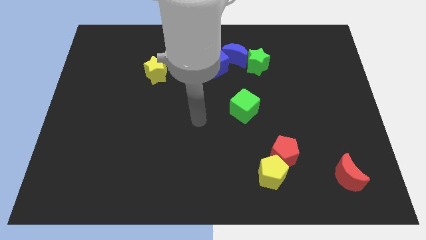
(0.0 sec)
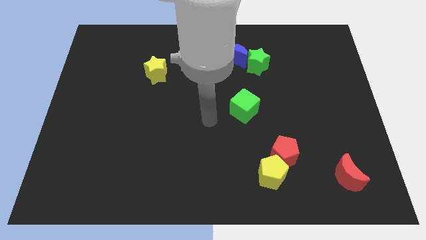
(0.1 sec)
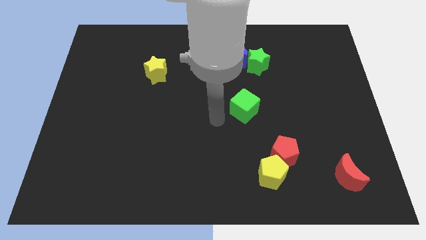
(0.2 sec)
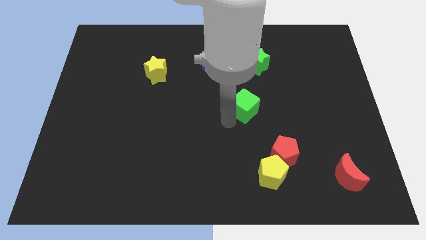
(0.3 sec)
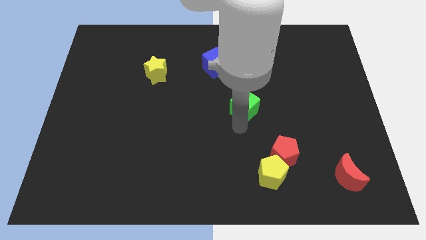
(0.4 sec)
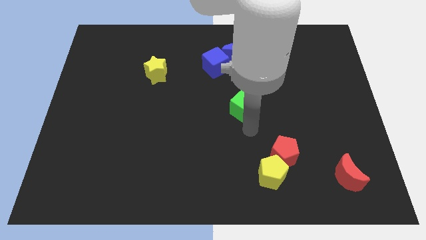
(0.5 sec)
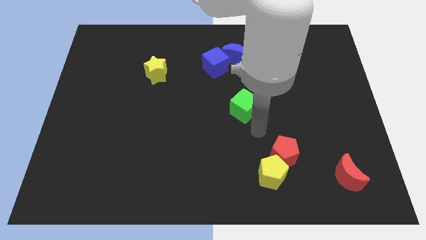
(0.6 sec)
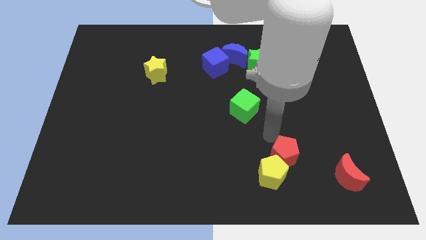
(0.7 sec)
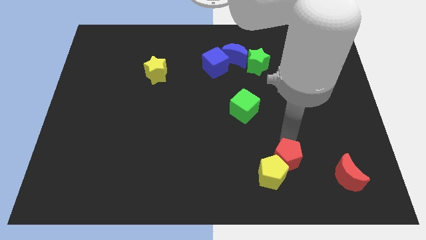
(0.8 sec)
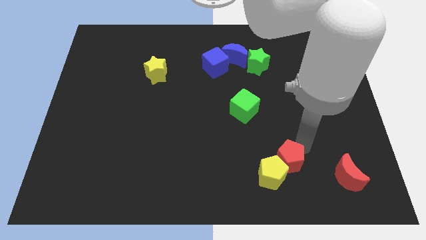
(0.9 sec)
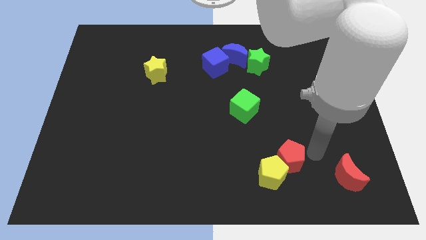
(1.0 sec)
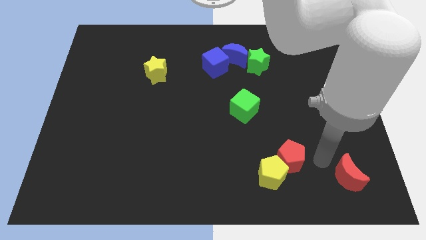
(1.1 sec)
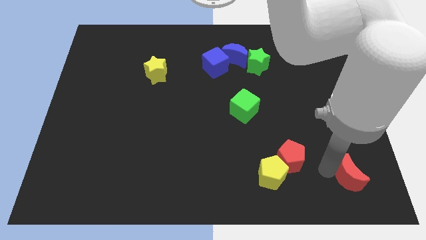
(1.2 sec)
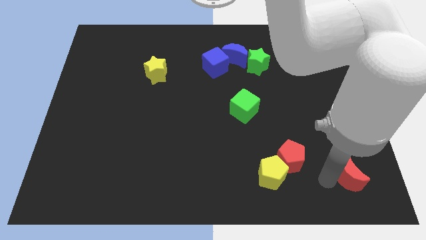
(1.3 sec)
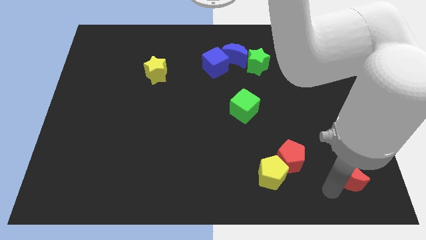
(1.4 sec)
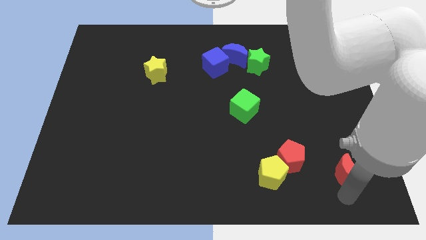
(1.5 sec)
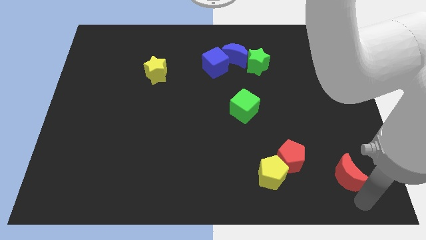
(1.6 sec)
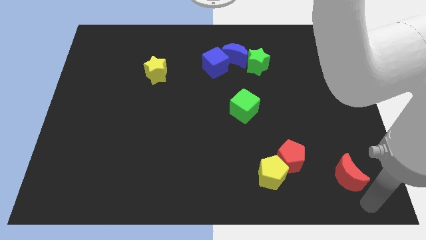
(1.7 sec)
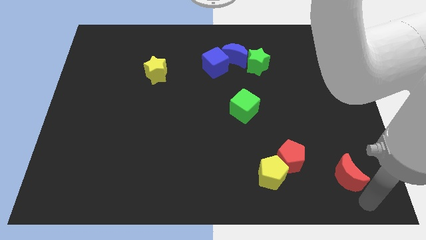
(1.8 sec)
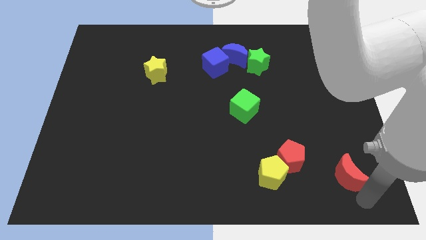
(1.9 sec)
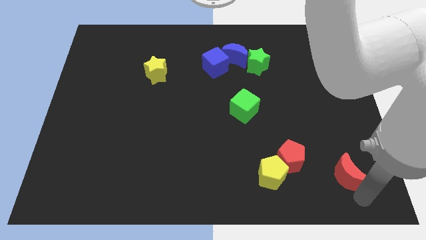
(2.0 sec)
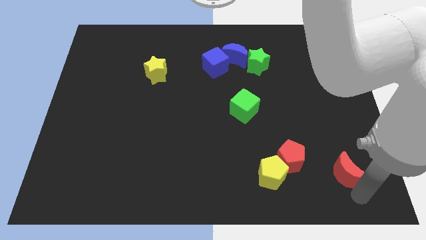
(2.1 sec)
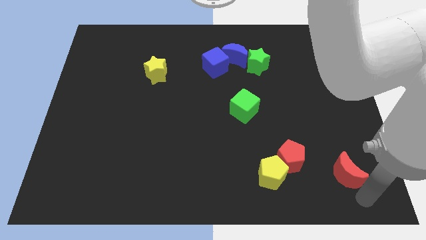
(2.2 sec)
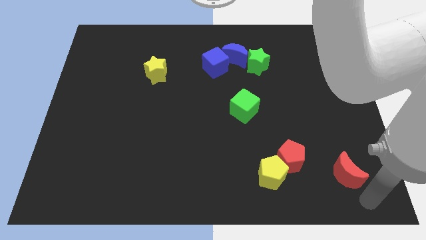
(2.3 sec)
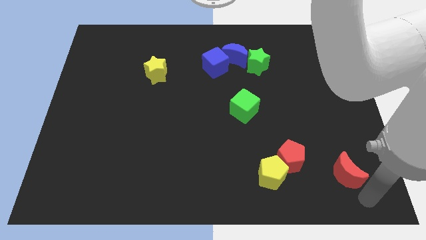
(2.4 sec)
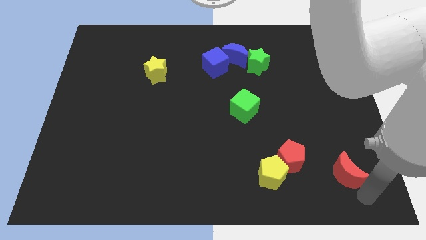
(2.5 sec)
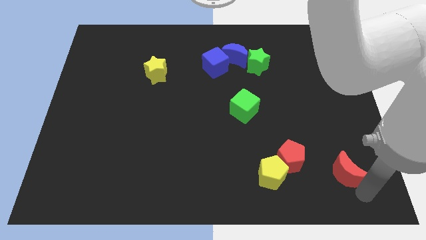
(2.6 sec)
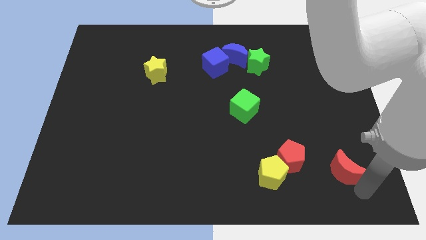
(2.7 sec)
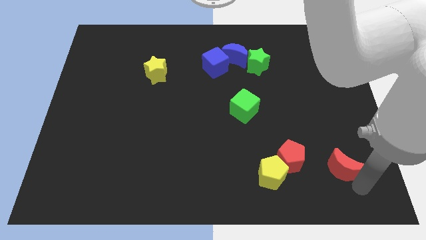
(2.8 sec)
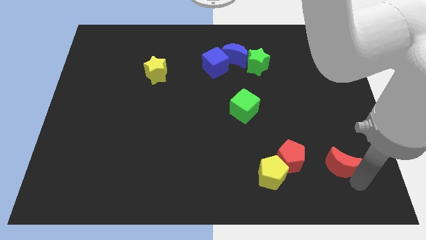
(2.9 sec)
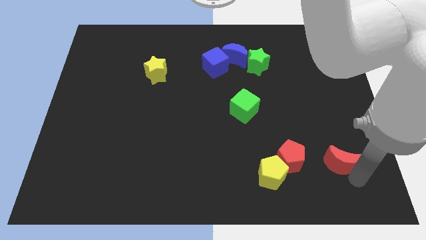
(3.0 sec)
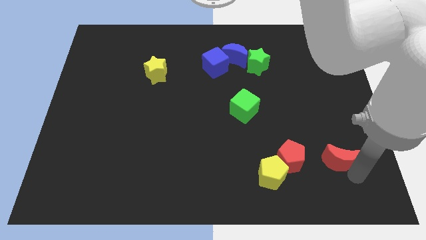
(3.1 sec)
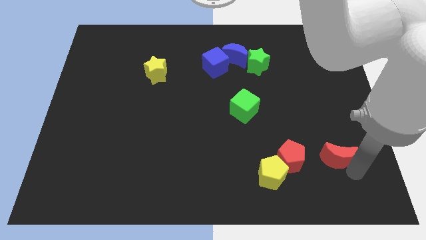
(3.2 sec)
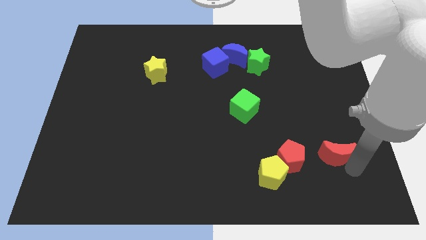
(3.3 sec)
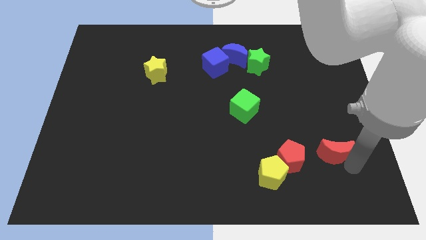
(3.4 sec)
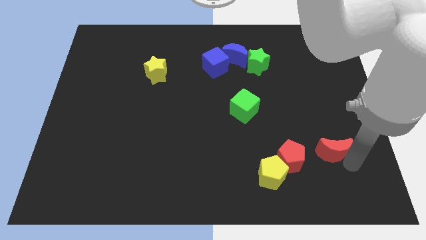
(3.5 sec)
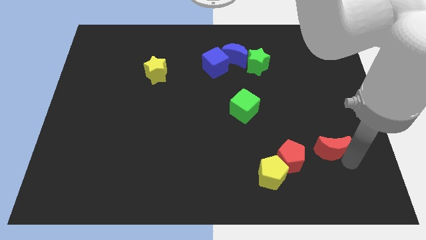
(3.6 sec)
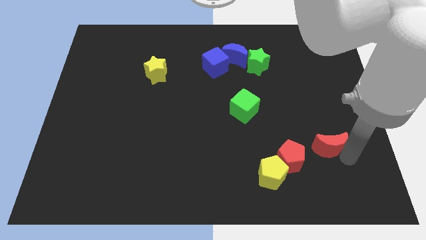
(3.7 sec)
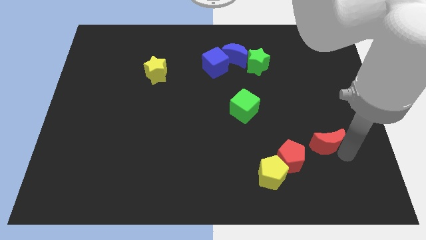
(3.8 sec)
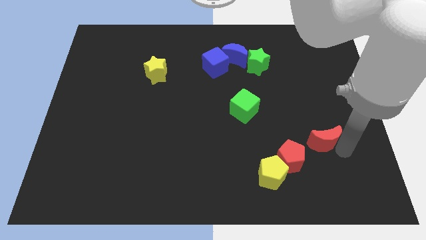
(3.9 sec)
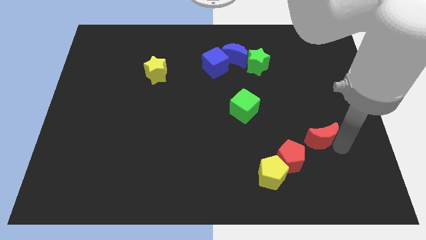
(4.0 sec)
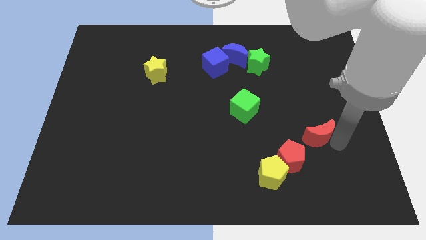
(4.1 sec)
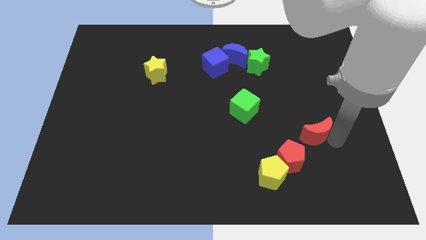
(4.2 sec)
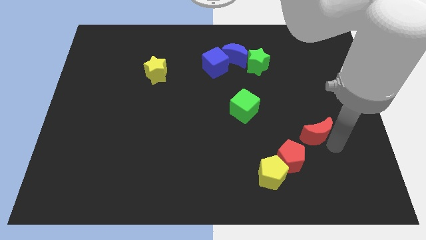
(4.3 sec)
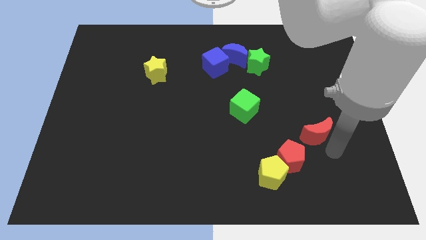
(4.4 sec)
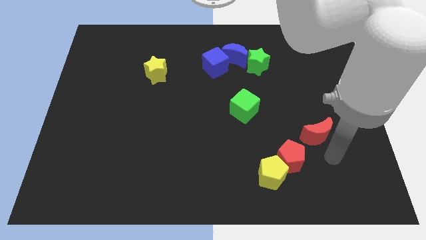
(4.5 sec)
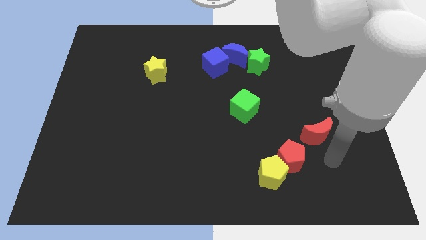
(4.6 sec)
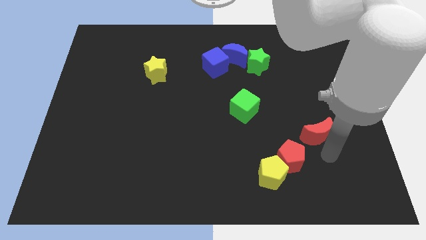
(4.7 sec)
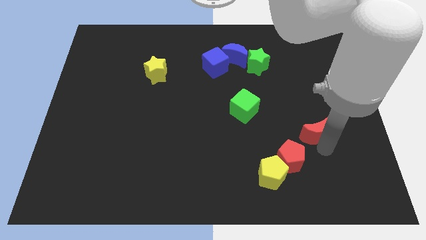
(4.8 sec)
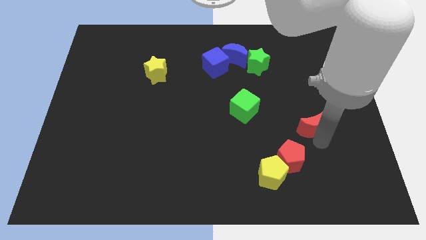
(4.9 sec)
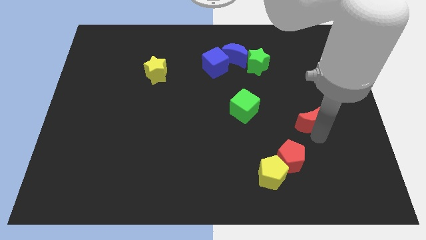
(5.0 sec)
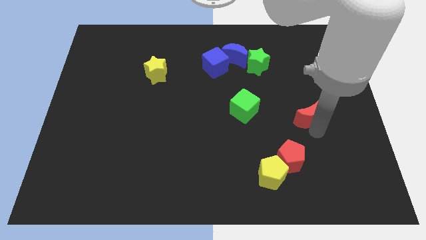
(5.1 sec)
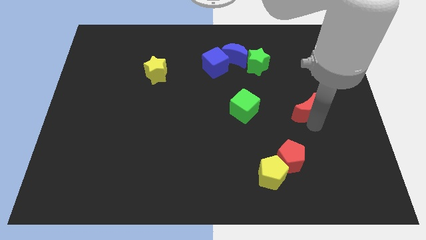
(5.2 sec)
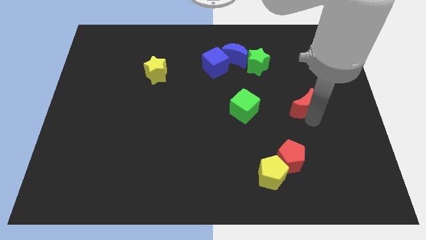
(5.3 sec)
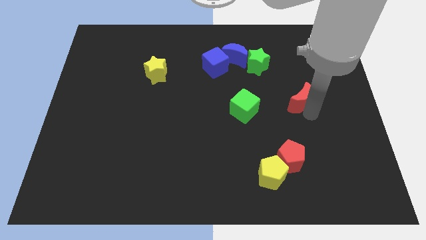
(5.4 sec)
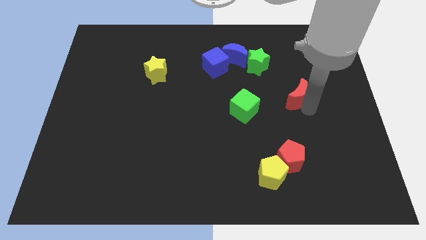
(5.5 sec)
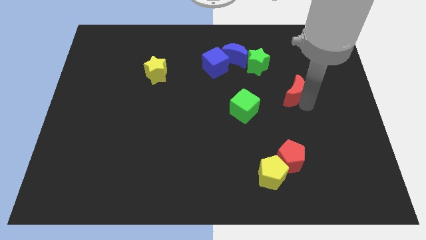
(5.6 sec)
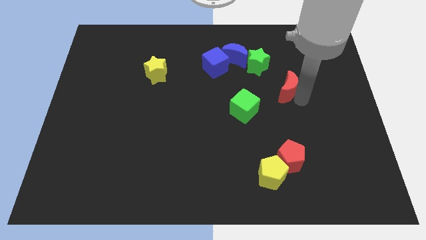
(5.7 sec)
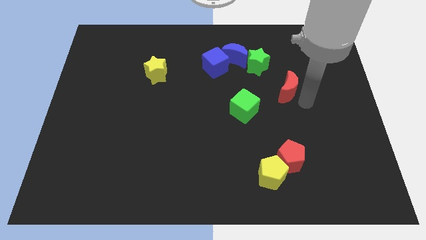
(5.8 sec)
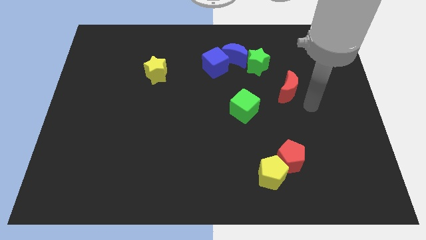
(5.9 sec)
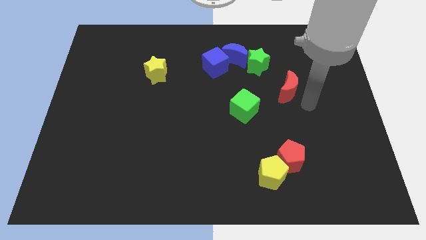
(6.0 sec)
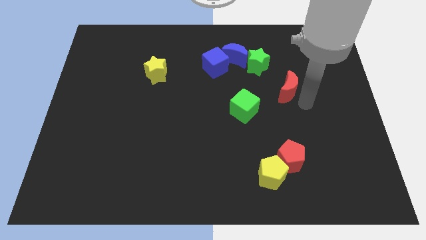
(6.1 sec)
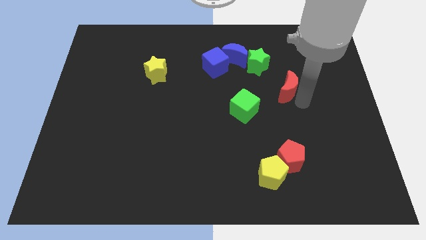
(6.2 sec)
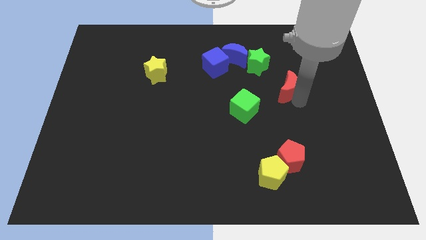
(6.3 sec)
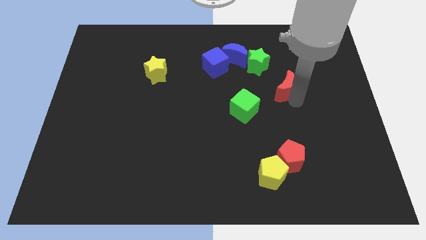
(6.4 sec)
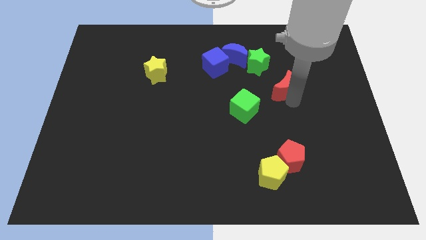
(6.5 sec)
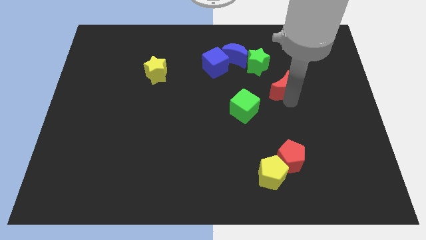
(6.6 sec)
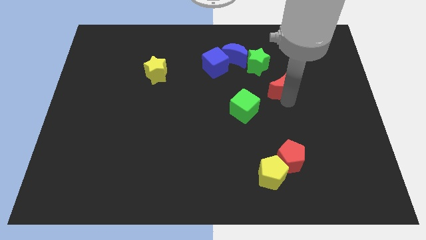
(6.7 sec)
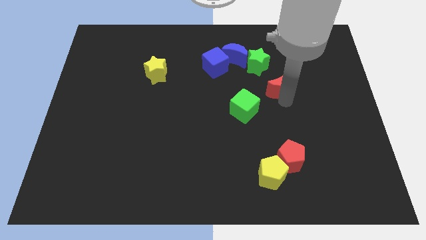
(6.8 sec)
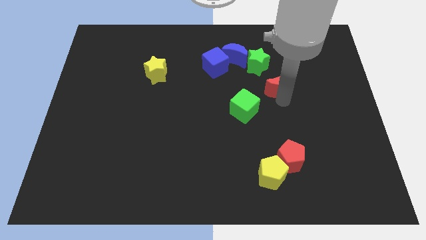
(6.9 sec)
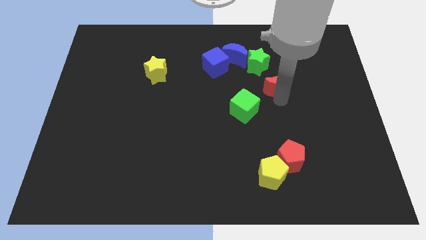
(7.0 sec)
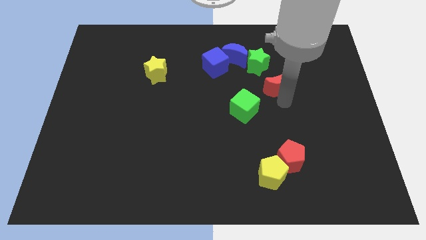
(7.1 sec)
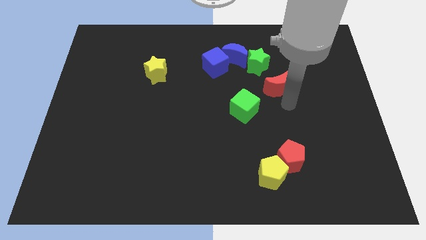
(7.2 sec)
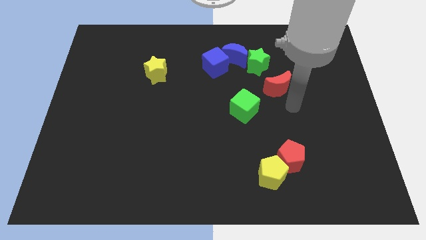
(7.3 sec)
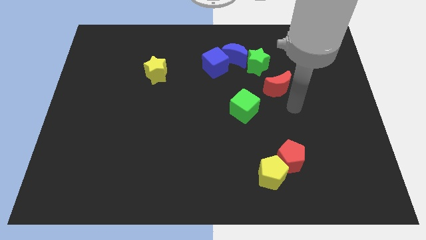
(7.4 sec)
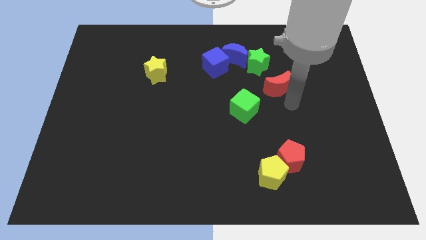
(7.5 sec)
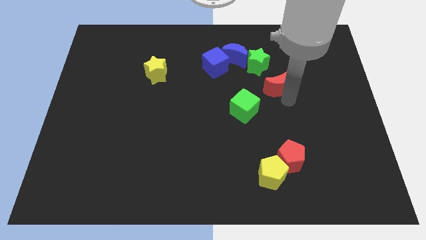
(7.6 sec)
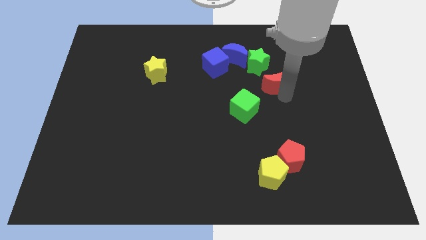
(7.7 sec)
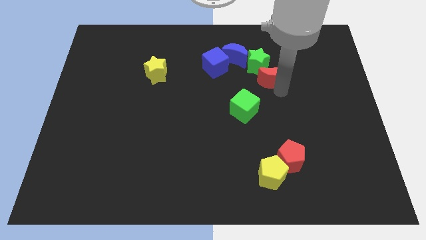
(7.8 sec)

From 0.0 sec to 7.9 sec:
push the red moon next to the green star
